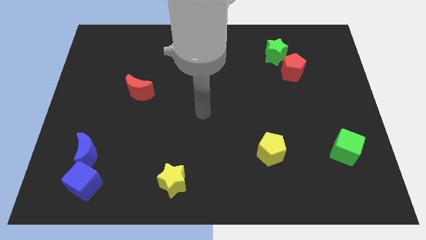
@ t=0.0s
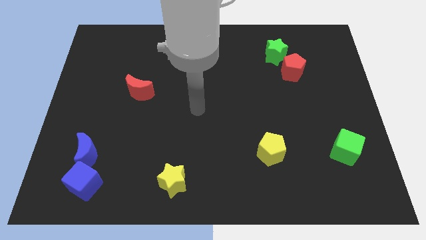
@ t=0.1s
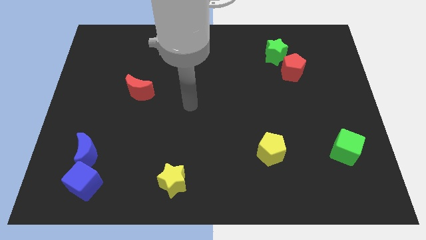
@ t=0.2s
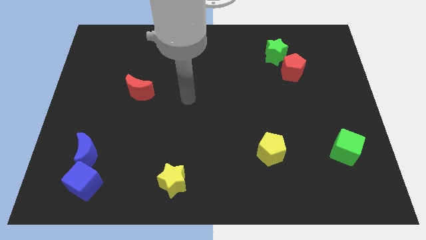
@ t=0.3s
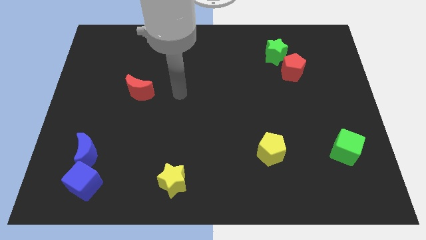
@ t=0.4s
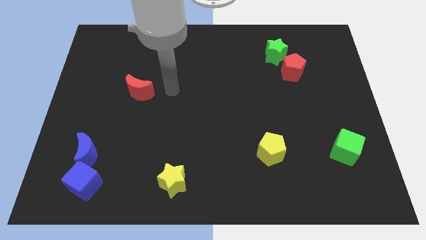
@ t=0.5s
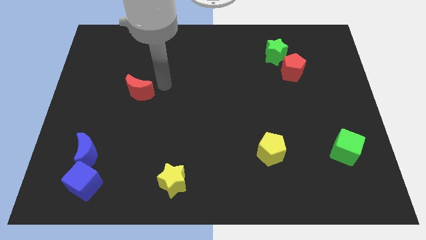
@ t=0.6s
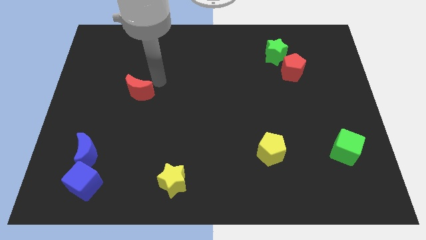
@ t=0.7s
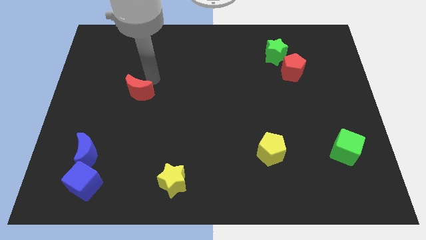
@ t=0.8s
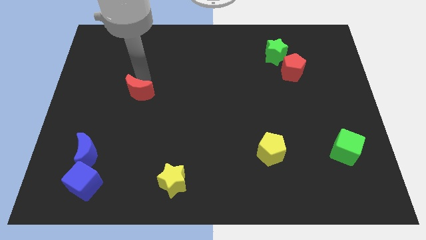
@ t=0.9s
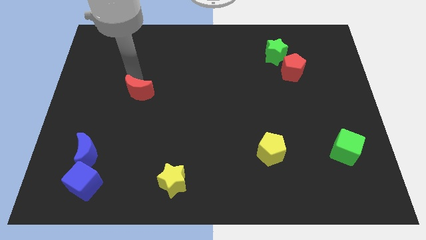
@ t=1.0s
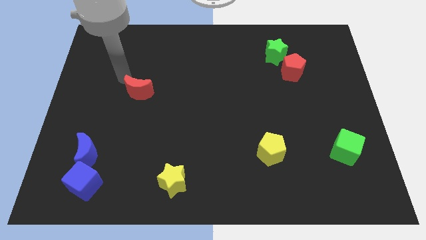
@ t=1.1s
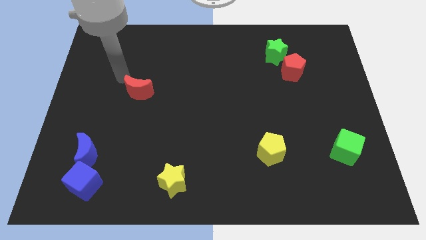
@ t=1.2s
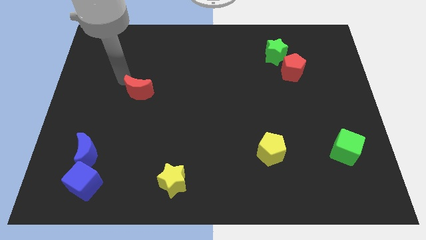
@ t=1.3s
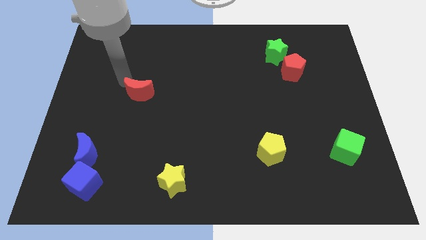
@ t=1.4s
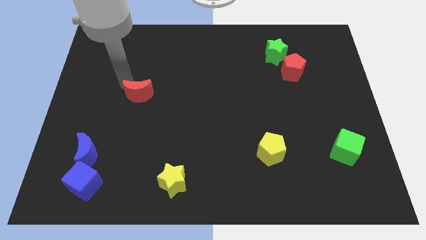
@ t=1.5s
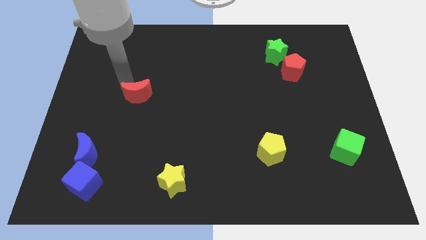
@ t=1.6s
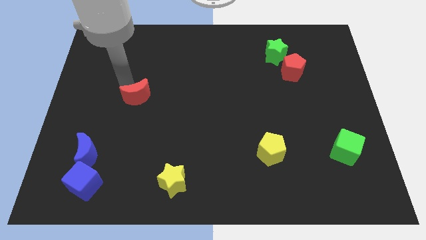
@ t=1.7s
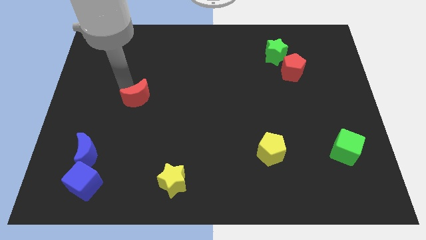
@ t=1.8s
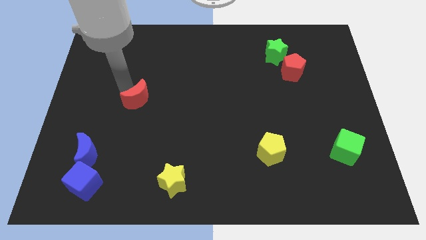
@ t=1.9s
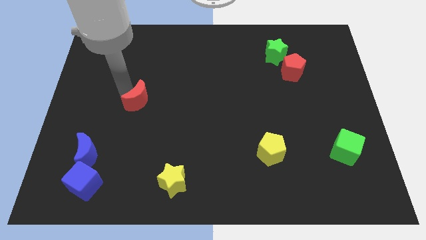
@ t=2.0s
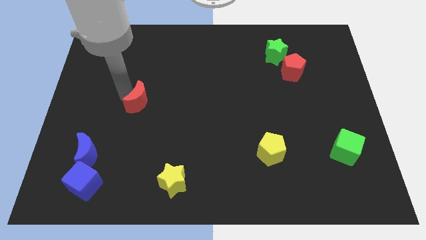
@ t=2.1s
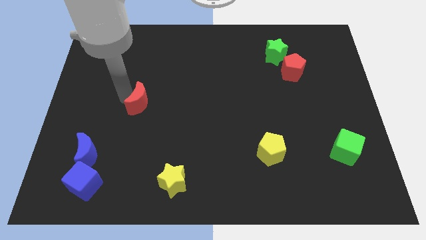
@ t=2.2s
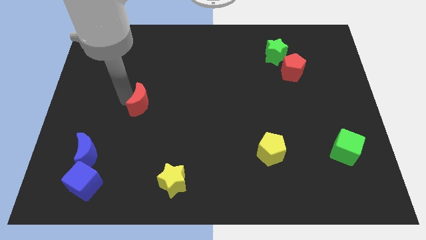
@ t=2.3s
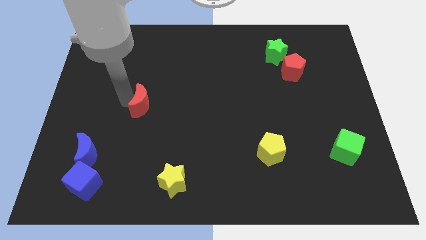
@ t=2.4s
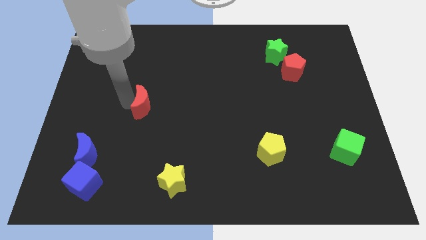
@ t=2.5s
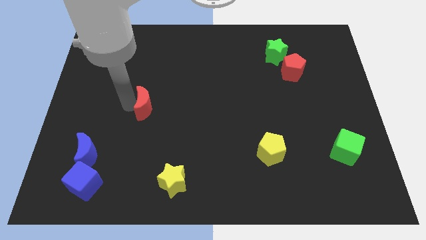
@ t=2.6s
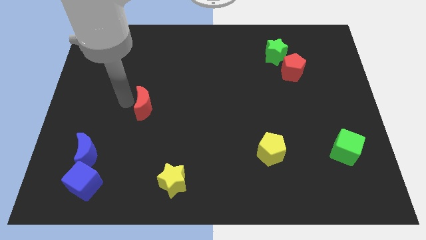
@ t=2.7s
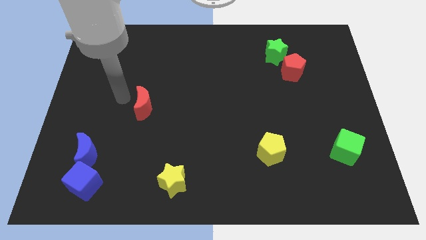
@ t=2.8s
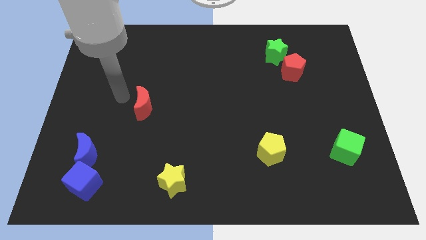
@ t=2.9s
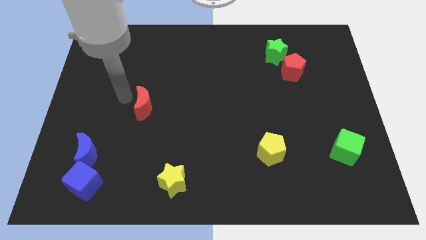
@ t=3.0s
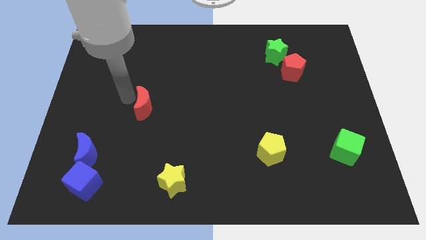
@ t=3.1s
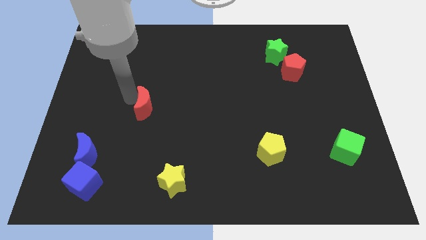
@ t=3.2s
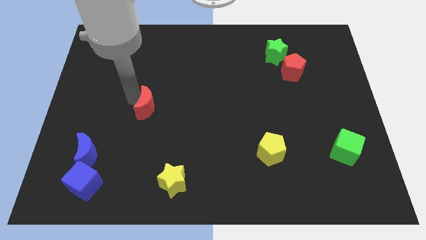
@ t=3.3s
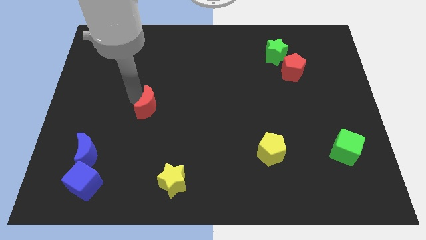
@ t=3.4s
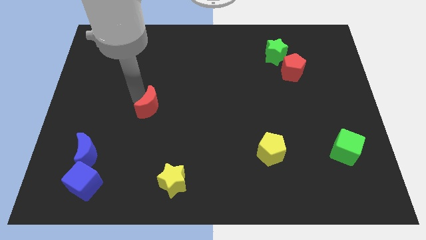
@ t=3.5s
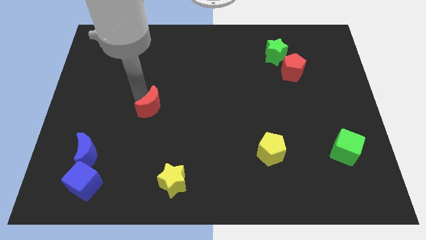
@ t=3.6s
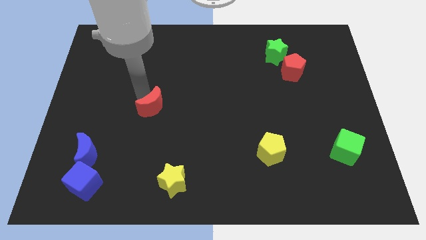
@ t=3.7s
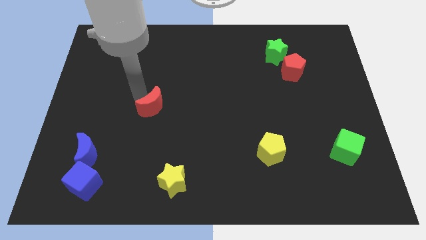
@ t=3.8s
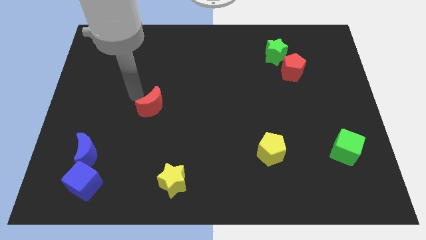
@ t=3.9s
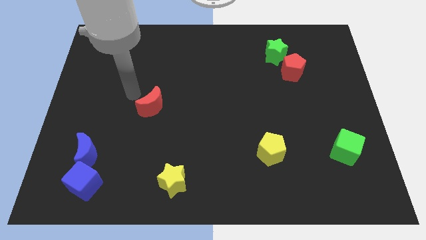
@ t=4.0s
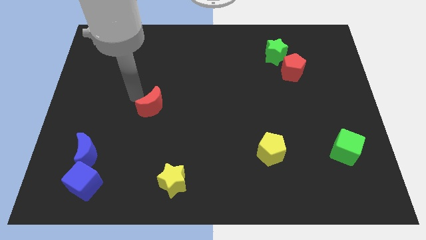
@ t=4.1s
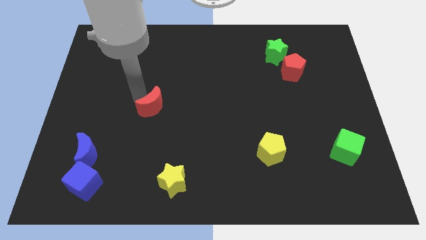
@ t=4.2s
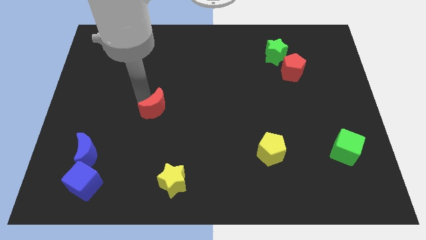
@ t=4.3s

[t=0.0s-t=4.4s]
move the red moon a bit diagonally downwards and to the right

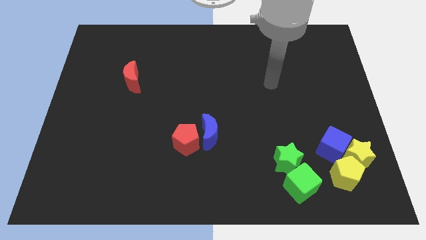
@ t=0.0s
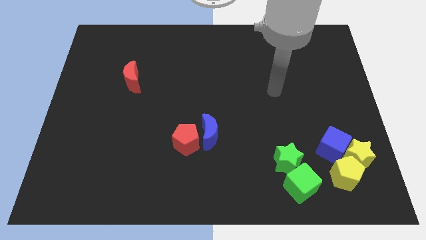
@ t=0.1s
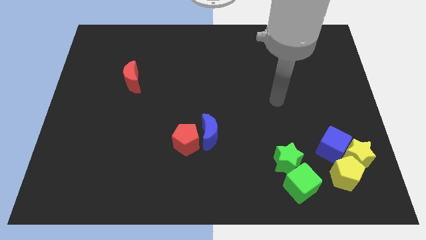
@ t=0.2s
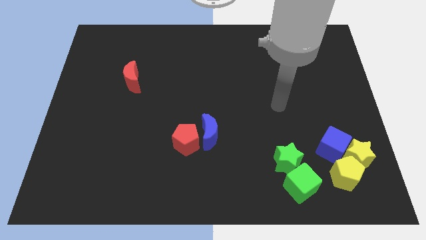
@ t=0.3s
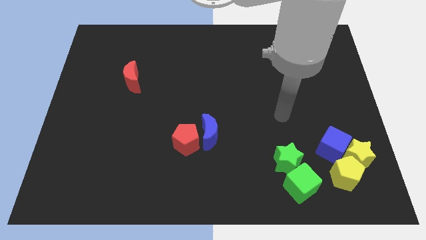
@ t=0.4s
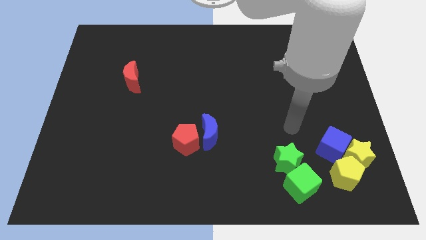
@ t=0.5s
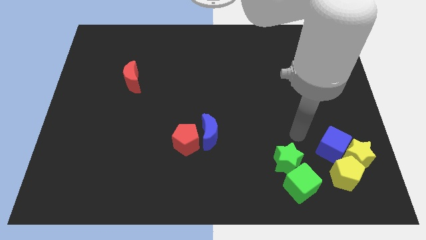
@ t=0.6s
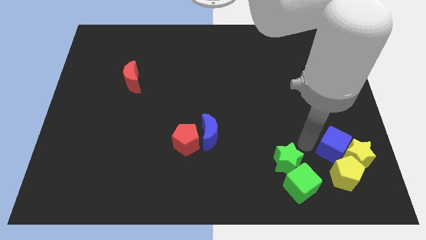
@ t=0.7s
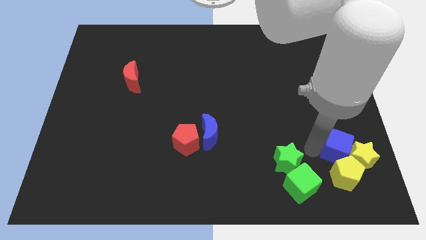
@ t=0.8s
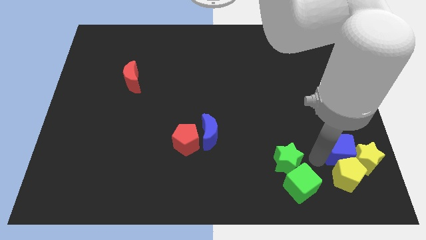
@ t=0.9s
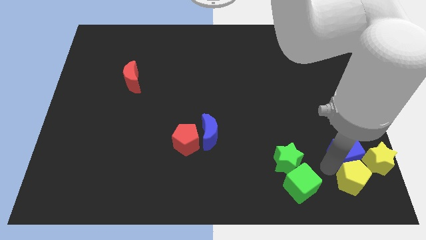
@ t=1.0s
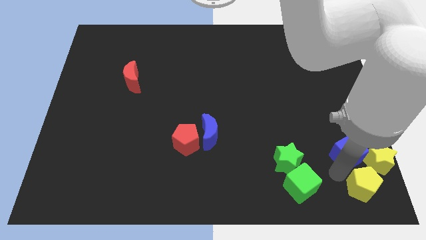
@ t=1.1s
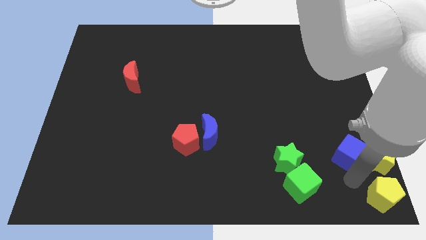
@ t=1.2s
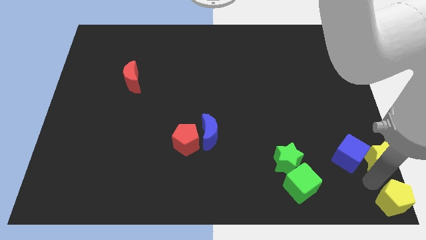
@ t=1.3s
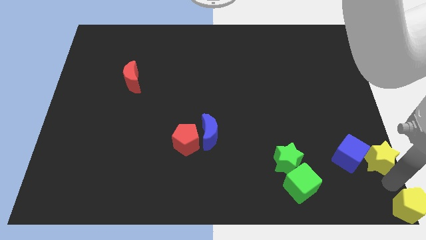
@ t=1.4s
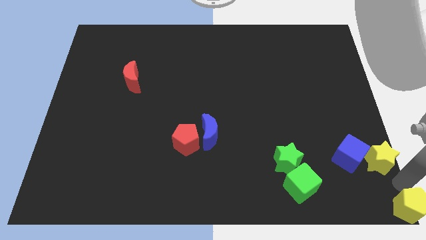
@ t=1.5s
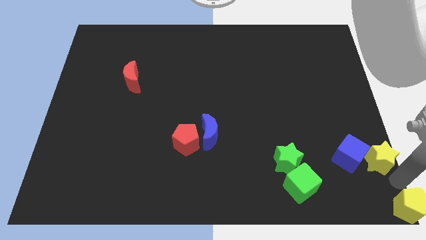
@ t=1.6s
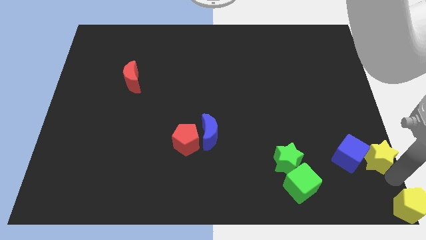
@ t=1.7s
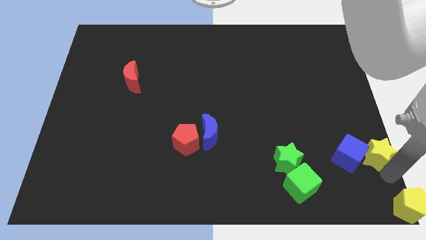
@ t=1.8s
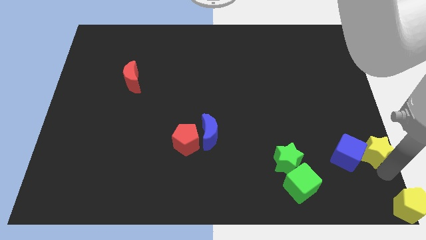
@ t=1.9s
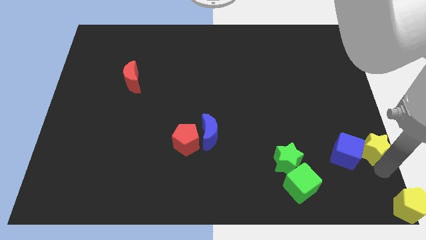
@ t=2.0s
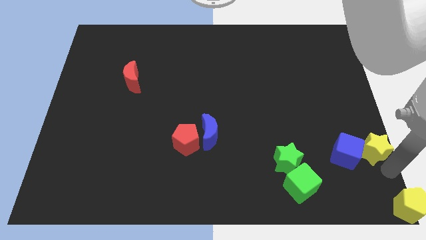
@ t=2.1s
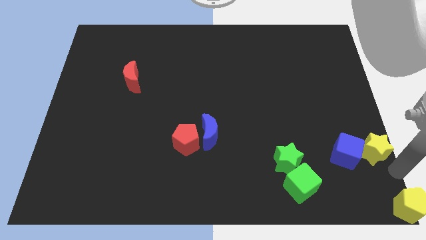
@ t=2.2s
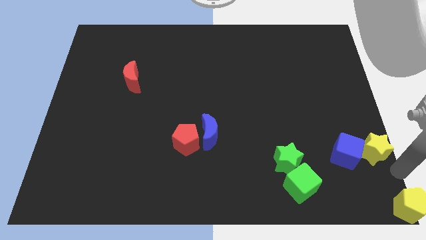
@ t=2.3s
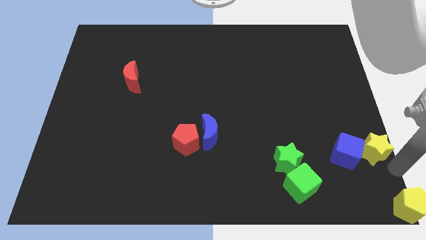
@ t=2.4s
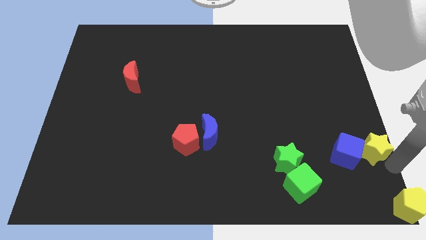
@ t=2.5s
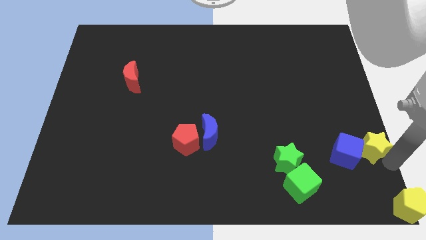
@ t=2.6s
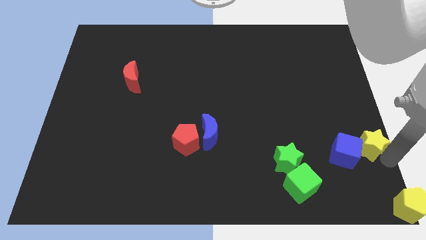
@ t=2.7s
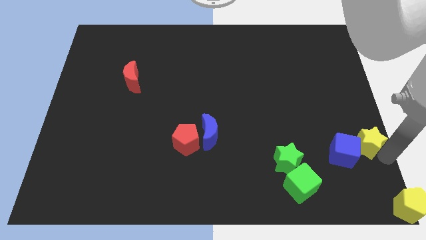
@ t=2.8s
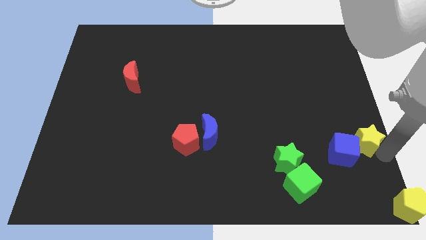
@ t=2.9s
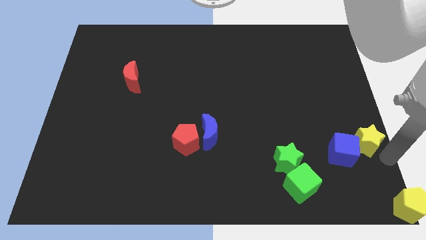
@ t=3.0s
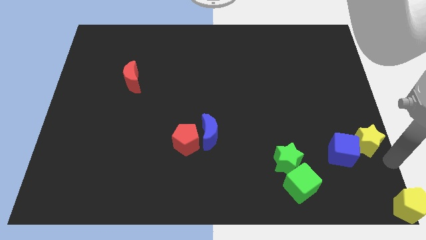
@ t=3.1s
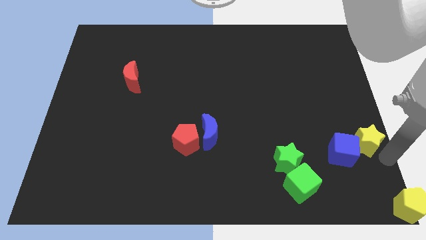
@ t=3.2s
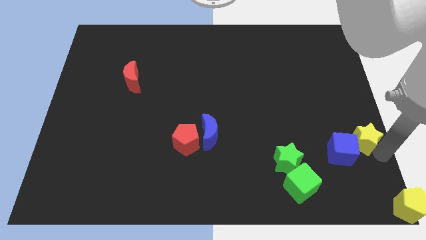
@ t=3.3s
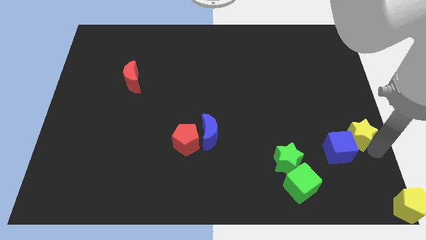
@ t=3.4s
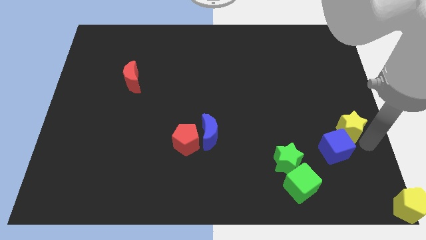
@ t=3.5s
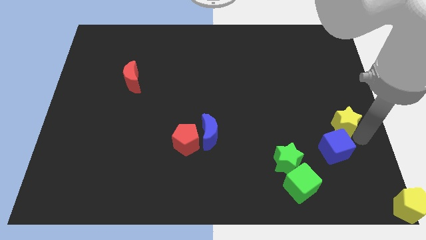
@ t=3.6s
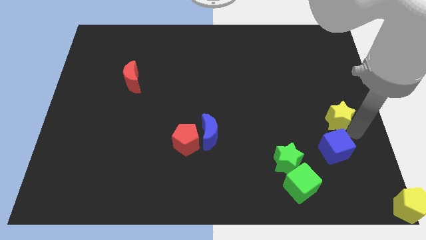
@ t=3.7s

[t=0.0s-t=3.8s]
move the yellow star slightly upwards and left diagonally
